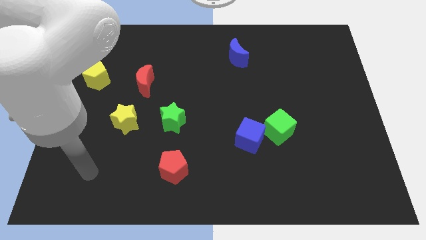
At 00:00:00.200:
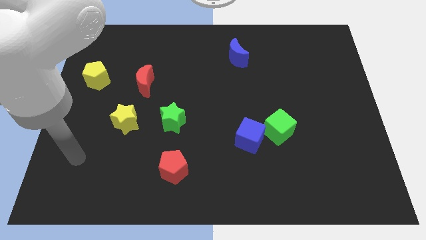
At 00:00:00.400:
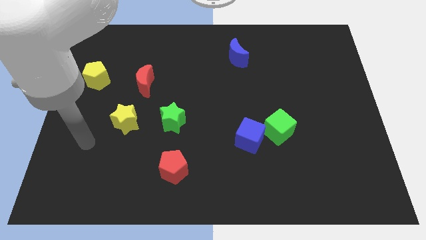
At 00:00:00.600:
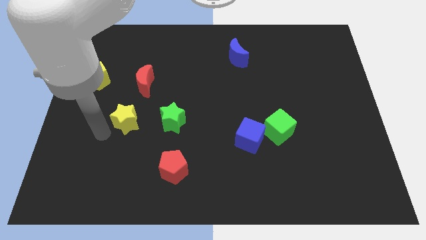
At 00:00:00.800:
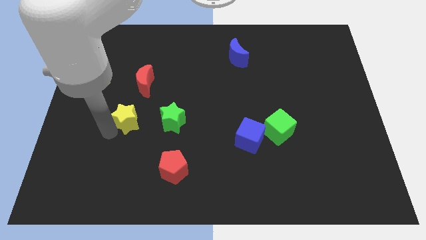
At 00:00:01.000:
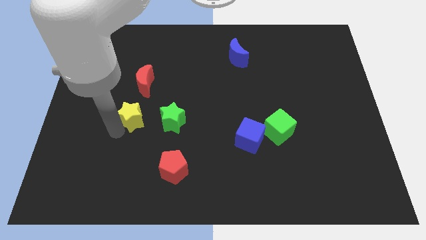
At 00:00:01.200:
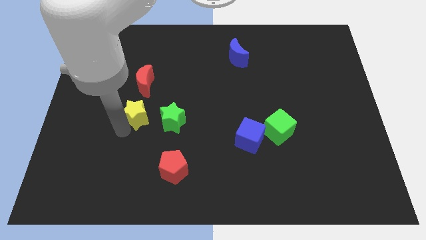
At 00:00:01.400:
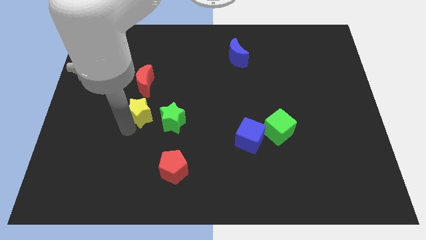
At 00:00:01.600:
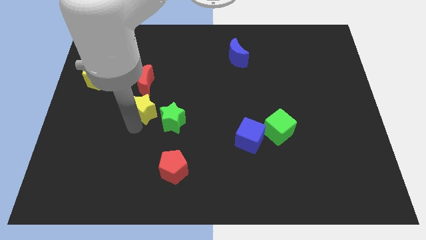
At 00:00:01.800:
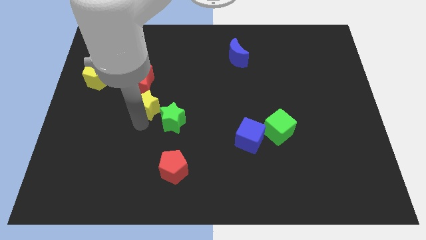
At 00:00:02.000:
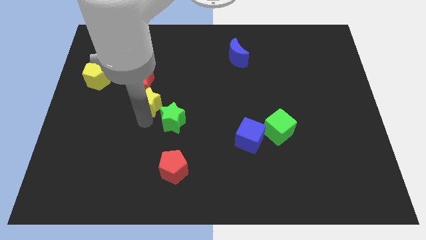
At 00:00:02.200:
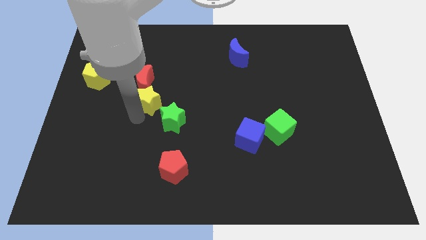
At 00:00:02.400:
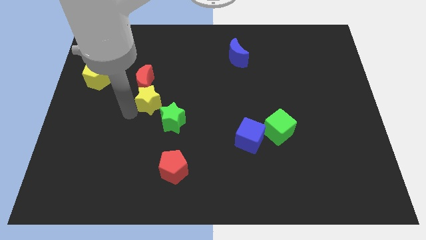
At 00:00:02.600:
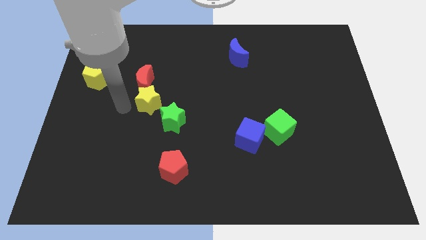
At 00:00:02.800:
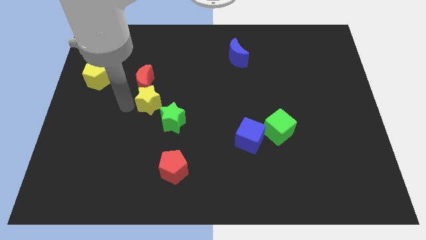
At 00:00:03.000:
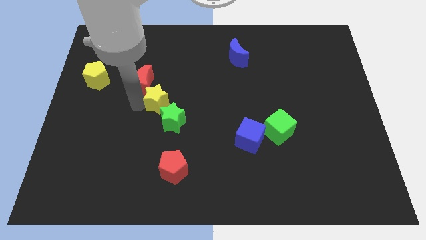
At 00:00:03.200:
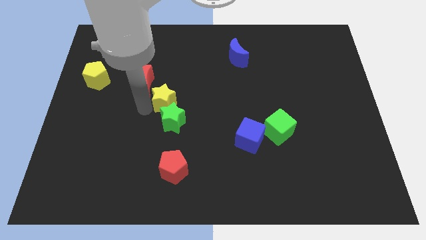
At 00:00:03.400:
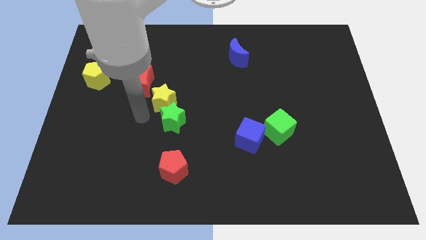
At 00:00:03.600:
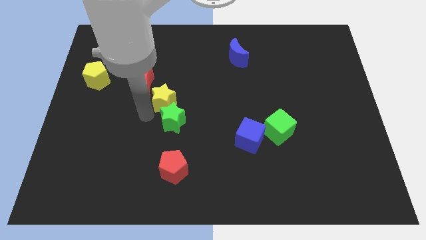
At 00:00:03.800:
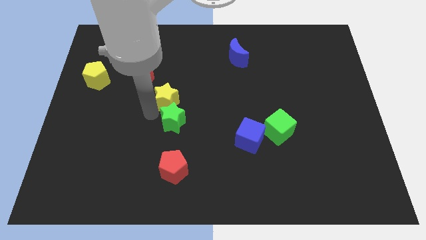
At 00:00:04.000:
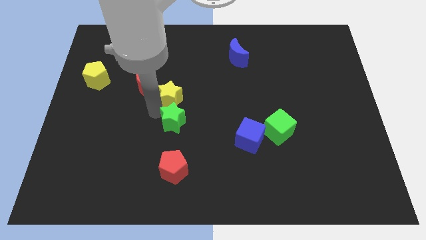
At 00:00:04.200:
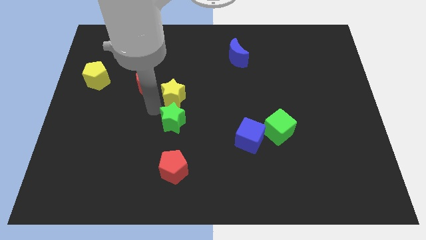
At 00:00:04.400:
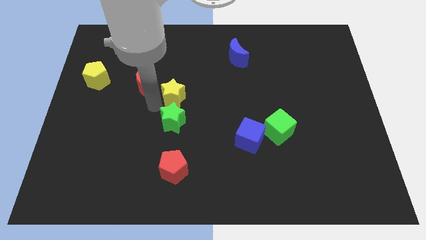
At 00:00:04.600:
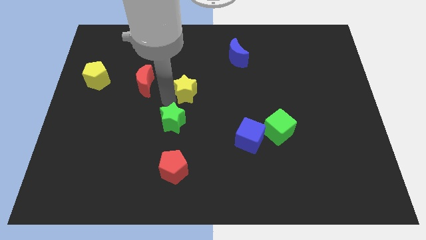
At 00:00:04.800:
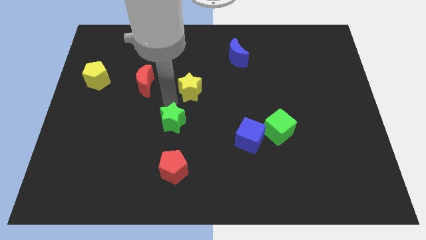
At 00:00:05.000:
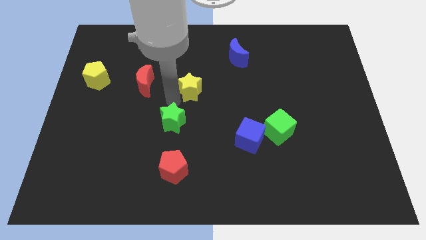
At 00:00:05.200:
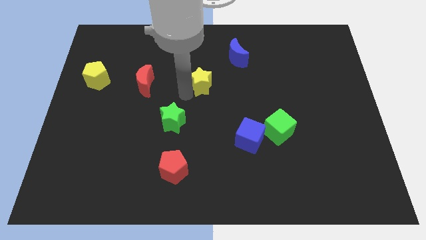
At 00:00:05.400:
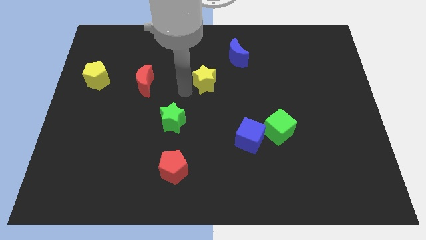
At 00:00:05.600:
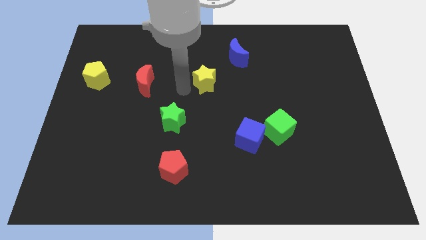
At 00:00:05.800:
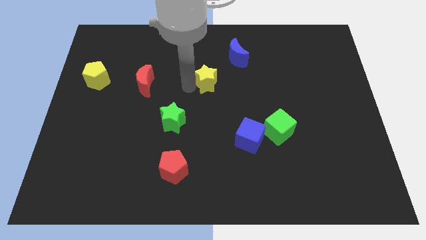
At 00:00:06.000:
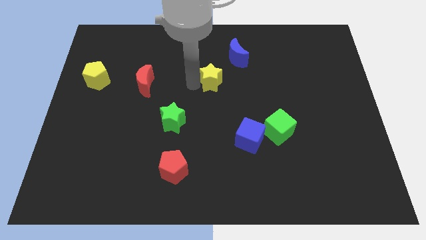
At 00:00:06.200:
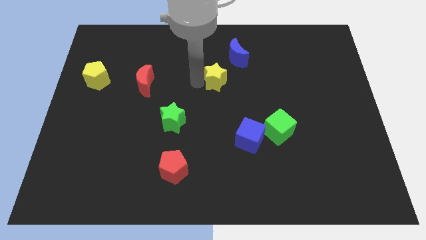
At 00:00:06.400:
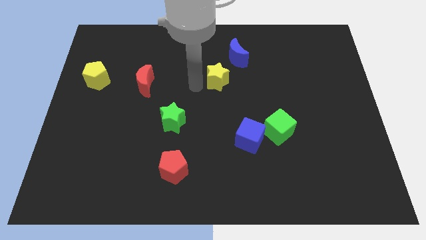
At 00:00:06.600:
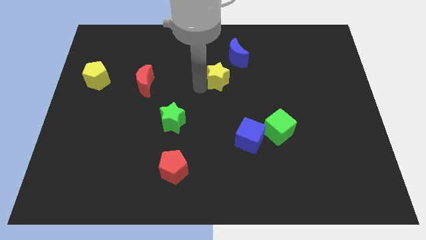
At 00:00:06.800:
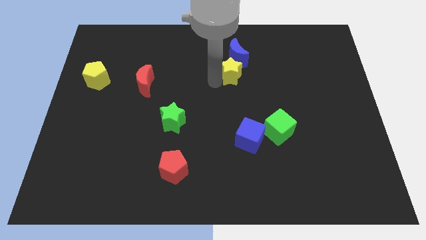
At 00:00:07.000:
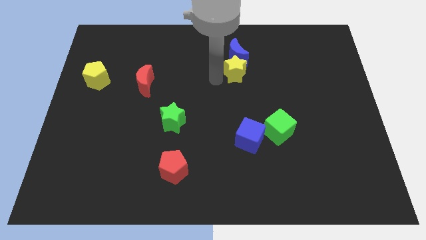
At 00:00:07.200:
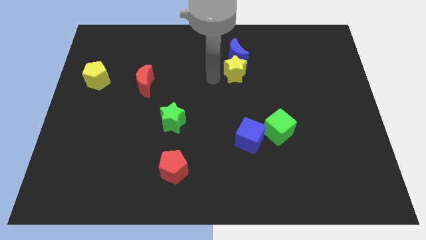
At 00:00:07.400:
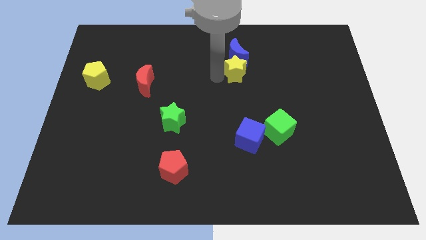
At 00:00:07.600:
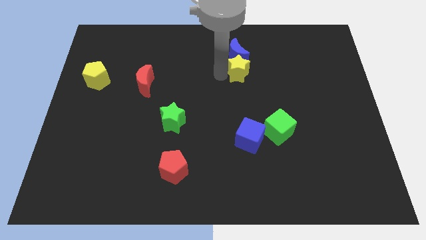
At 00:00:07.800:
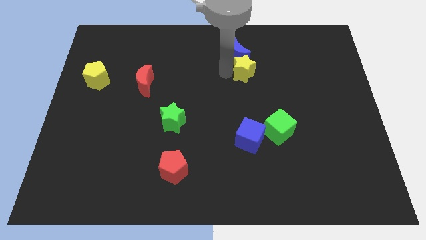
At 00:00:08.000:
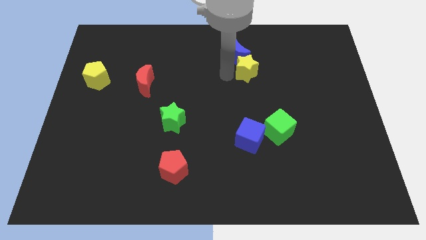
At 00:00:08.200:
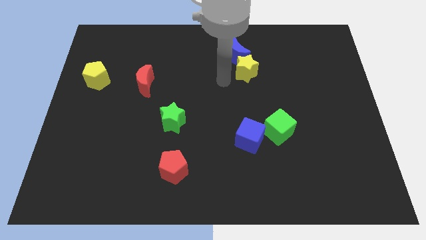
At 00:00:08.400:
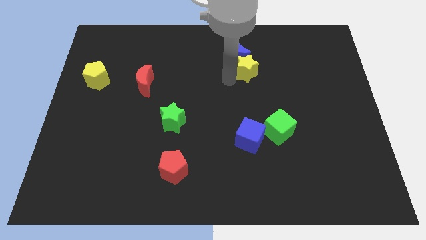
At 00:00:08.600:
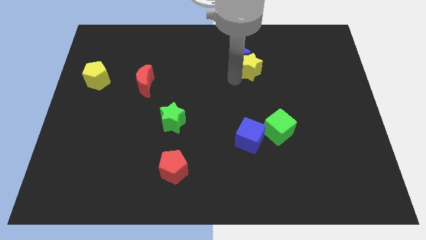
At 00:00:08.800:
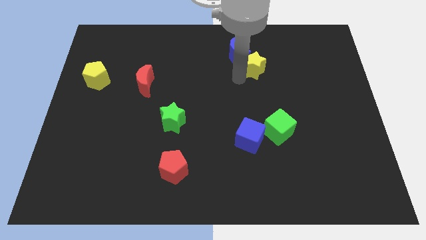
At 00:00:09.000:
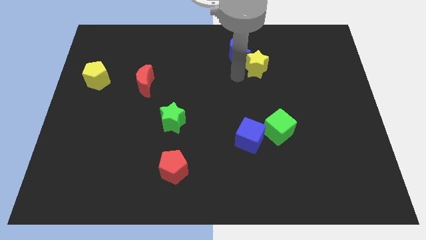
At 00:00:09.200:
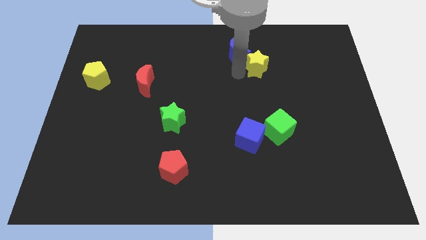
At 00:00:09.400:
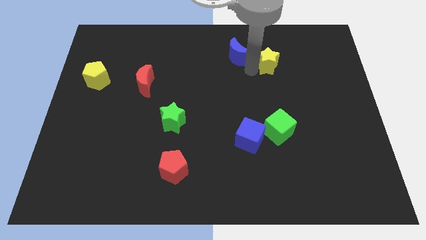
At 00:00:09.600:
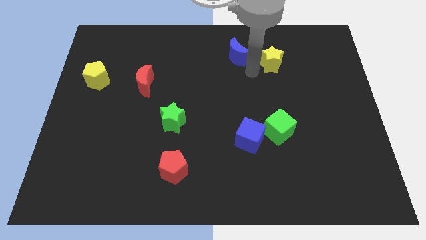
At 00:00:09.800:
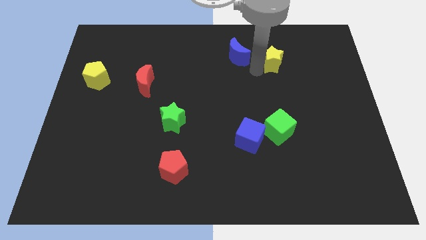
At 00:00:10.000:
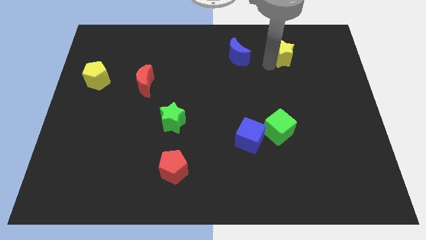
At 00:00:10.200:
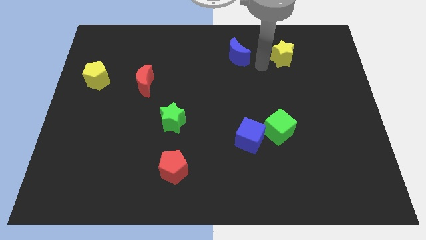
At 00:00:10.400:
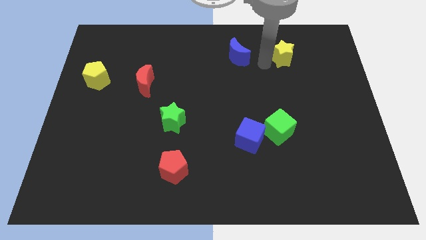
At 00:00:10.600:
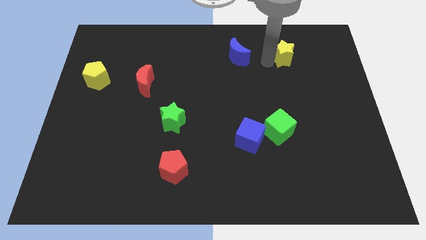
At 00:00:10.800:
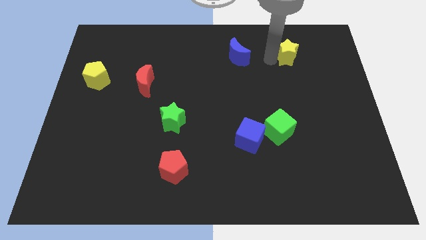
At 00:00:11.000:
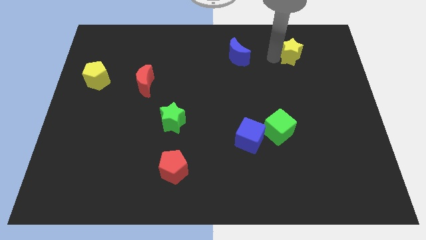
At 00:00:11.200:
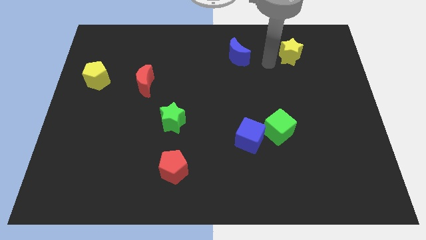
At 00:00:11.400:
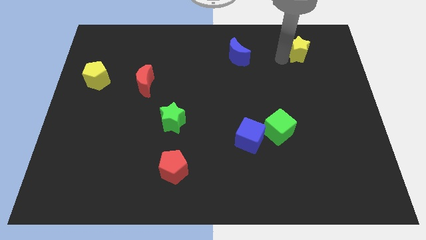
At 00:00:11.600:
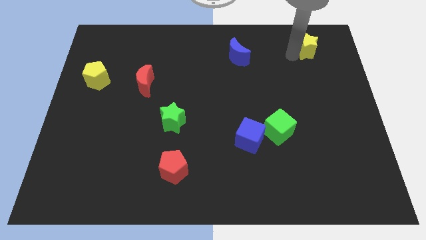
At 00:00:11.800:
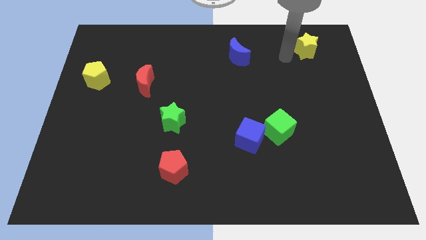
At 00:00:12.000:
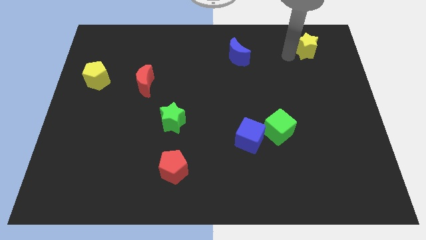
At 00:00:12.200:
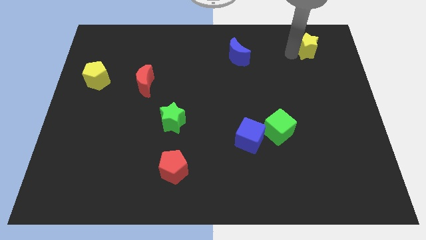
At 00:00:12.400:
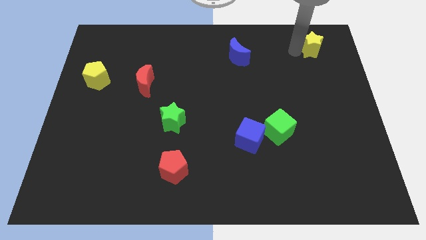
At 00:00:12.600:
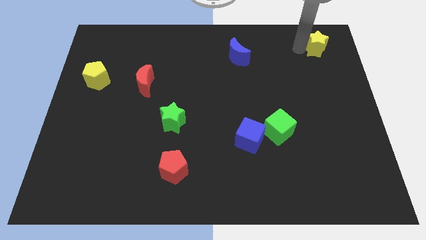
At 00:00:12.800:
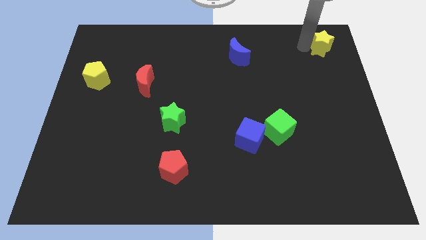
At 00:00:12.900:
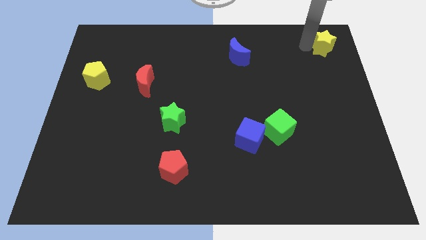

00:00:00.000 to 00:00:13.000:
slide the yellow star to the upper right corner

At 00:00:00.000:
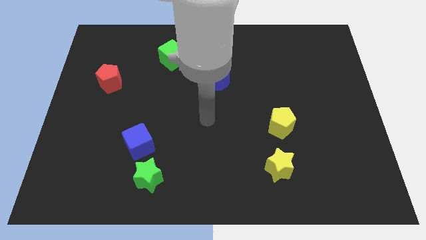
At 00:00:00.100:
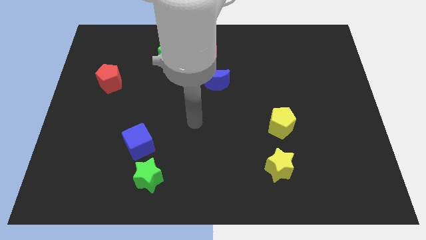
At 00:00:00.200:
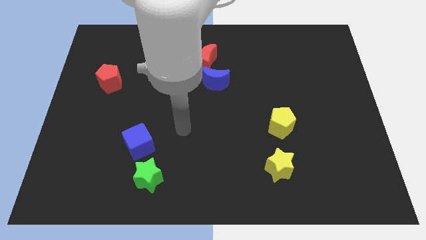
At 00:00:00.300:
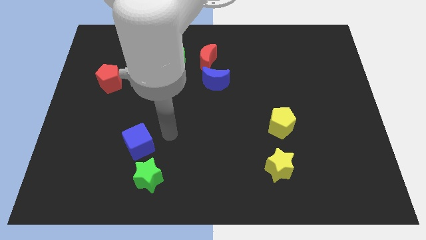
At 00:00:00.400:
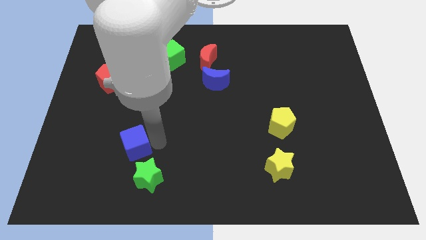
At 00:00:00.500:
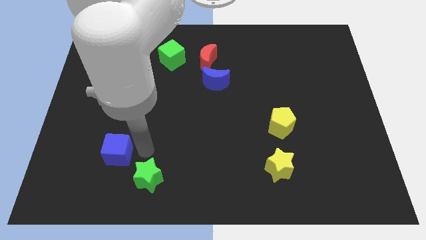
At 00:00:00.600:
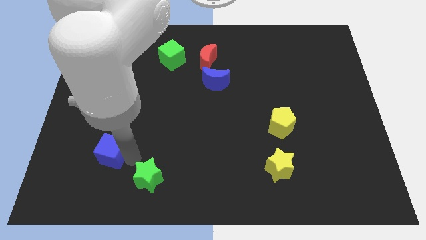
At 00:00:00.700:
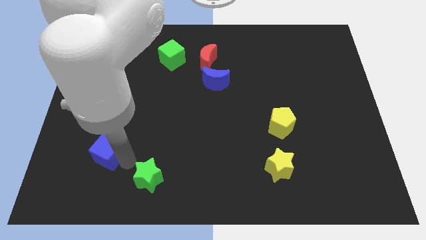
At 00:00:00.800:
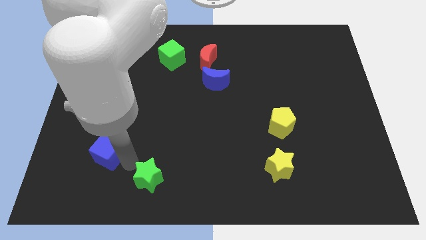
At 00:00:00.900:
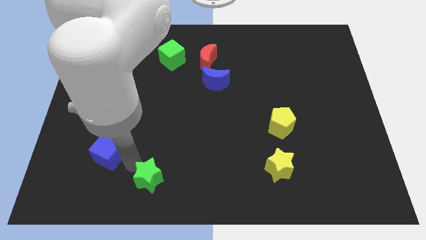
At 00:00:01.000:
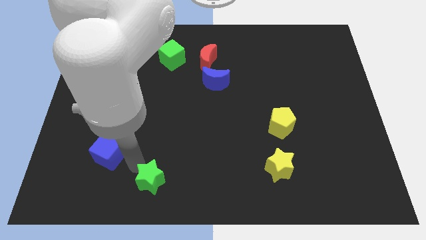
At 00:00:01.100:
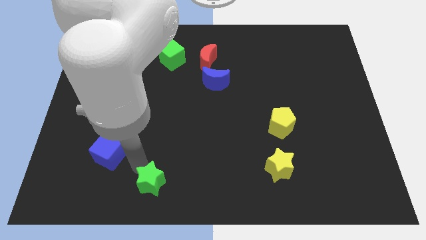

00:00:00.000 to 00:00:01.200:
put the green star to the bottom

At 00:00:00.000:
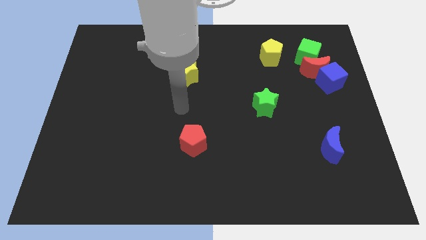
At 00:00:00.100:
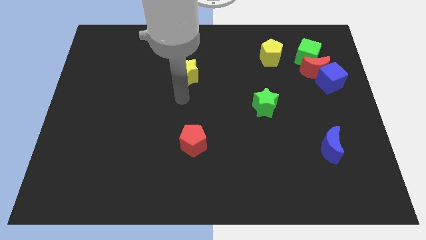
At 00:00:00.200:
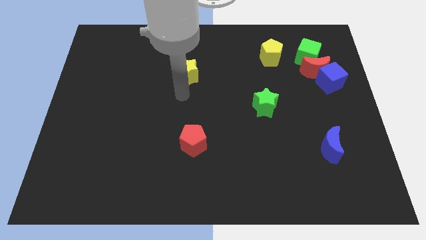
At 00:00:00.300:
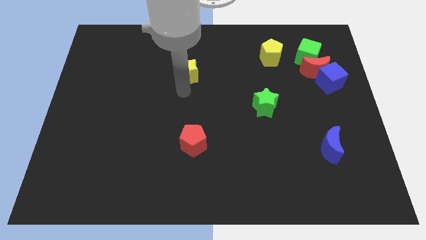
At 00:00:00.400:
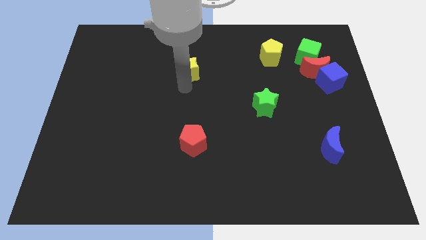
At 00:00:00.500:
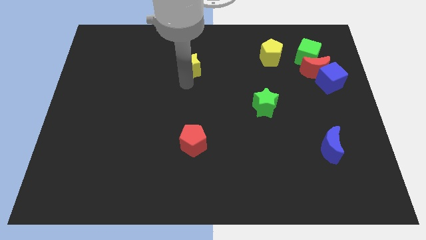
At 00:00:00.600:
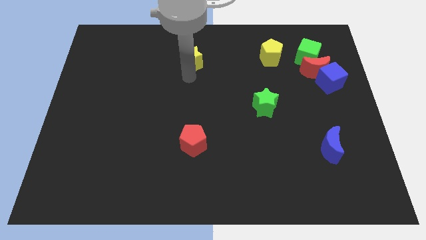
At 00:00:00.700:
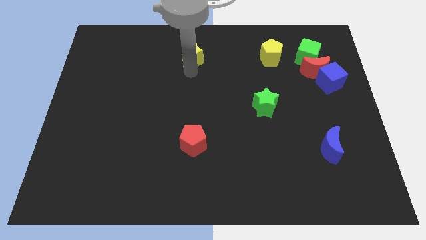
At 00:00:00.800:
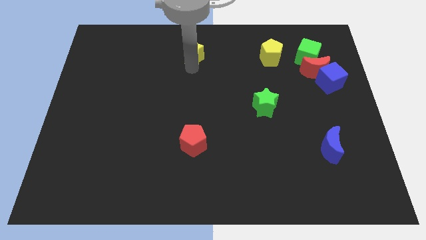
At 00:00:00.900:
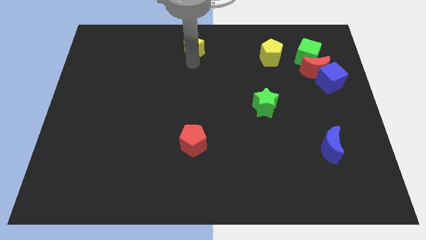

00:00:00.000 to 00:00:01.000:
push the yellow star to the top
